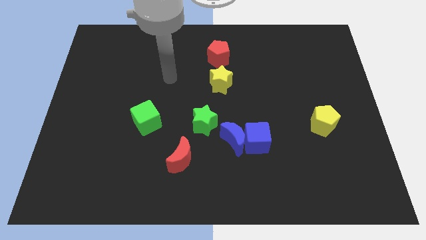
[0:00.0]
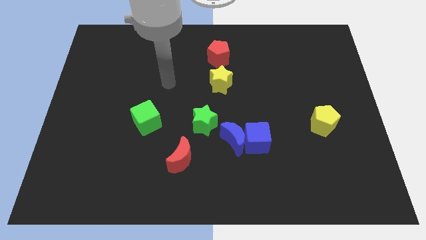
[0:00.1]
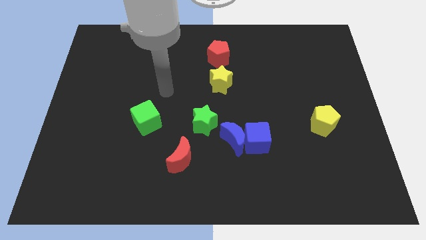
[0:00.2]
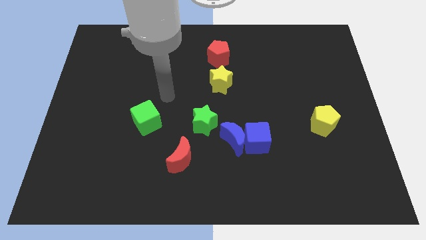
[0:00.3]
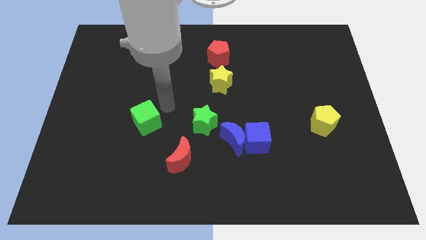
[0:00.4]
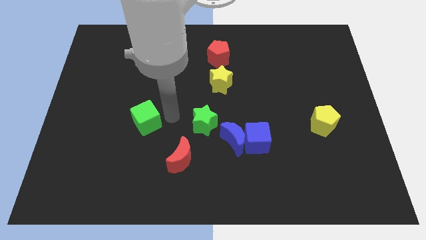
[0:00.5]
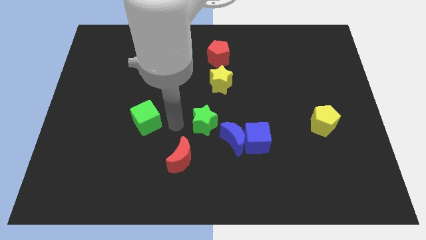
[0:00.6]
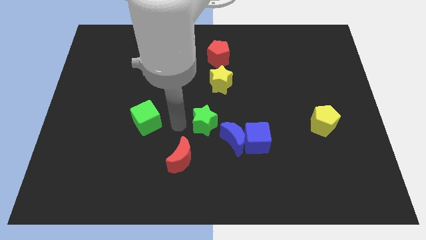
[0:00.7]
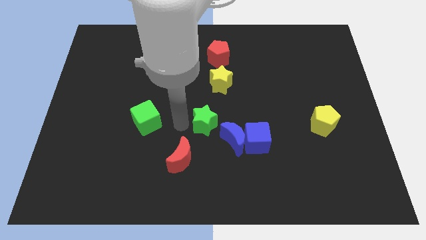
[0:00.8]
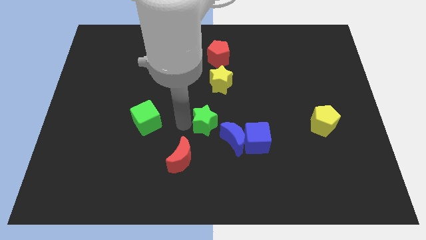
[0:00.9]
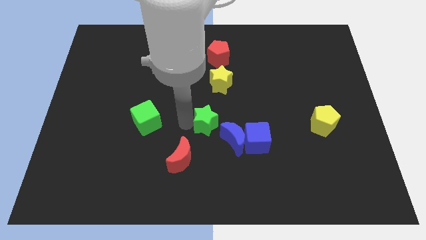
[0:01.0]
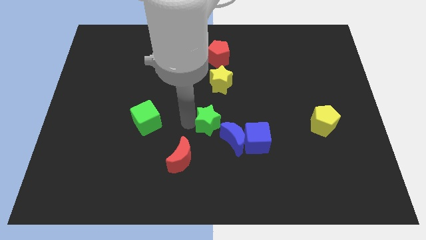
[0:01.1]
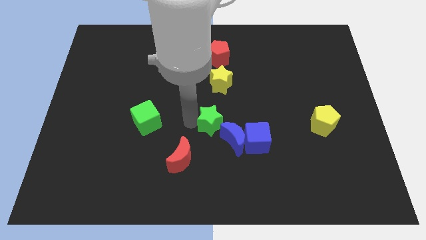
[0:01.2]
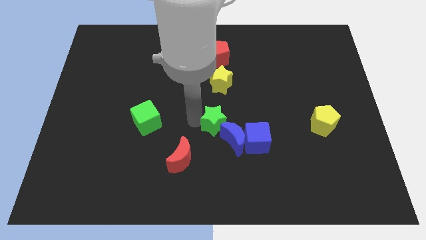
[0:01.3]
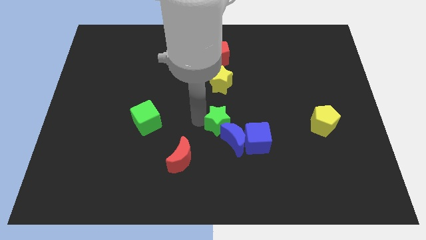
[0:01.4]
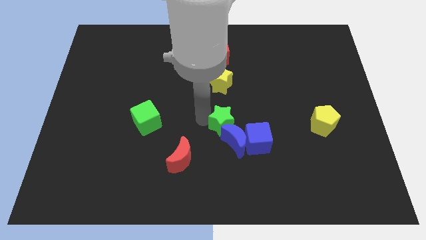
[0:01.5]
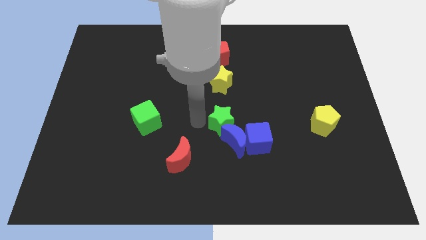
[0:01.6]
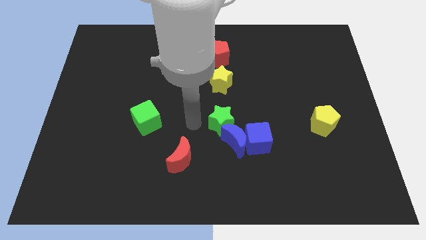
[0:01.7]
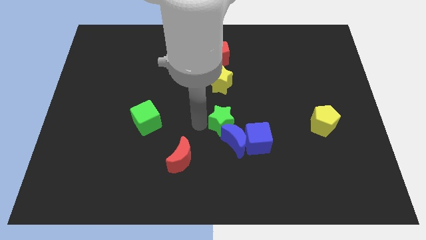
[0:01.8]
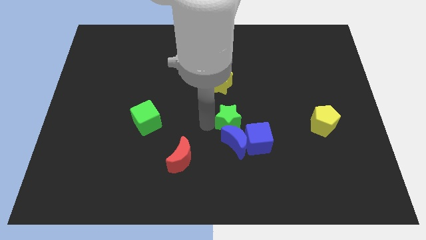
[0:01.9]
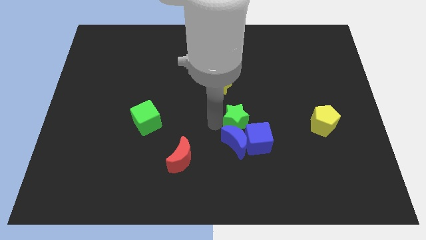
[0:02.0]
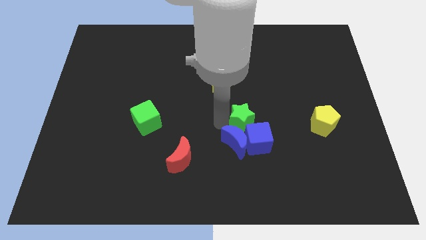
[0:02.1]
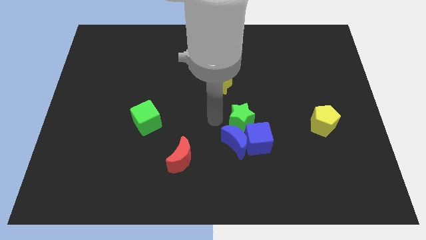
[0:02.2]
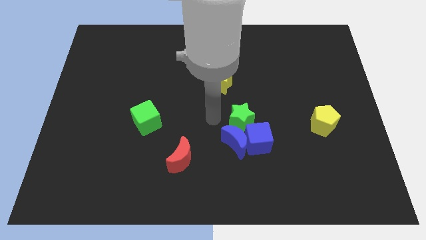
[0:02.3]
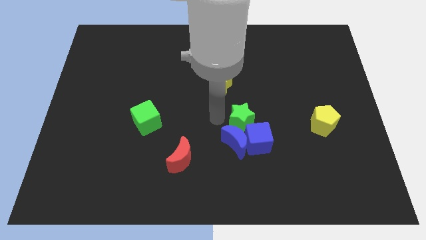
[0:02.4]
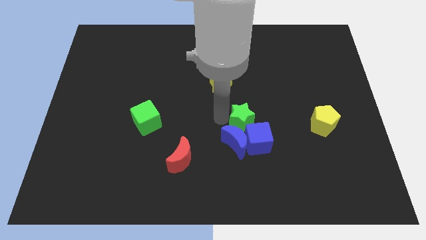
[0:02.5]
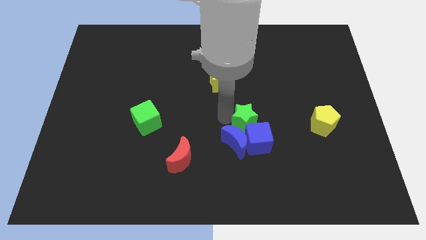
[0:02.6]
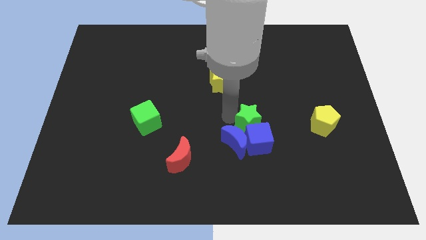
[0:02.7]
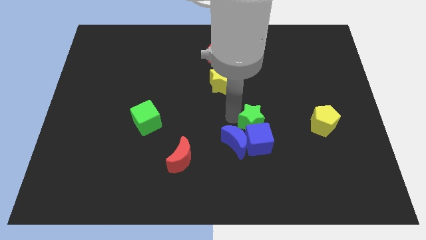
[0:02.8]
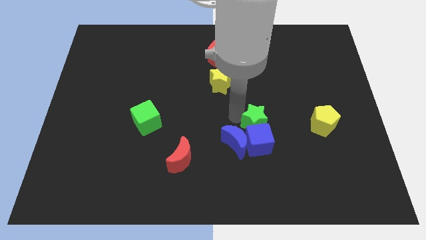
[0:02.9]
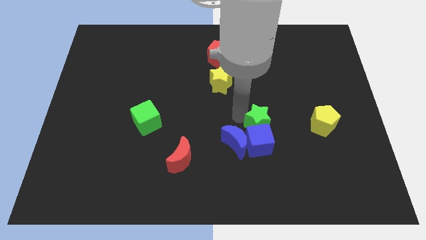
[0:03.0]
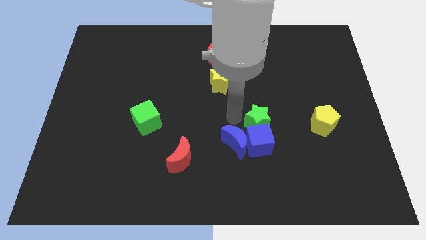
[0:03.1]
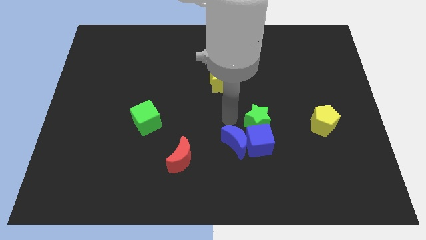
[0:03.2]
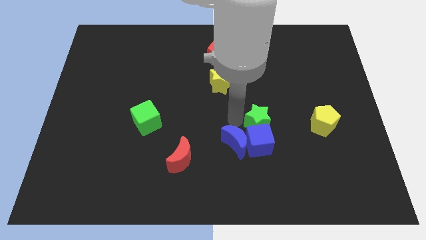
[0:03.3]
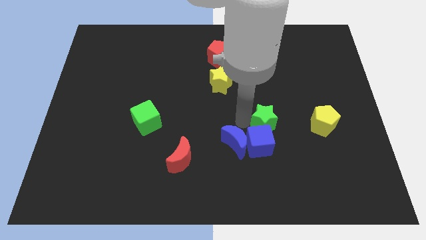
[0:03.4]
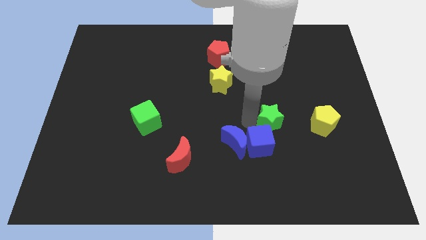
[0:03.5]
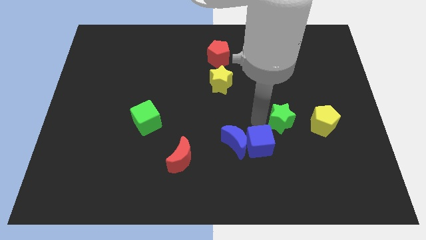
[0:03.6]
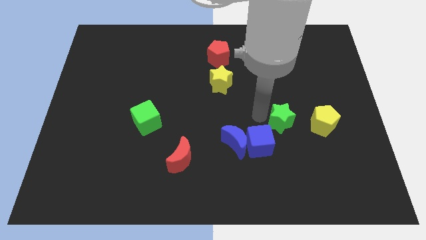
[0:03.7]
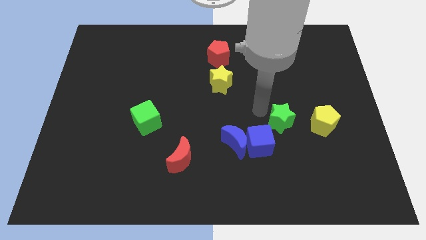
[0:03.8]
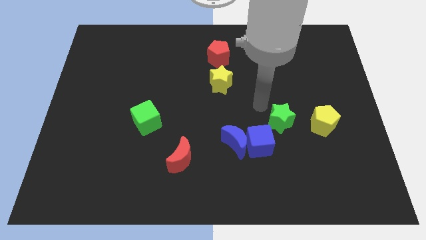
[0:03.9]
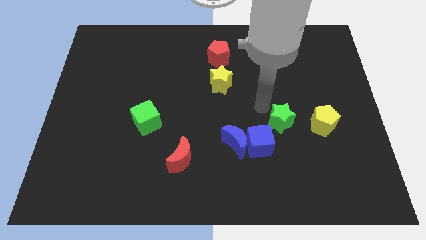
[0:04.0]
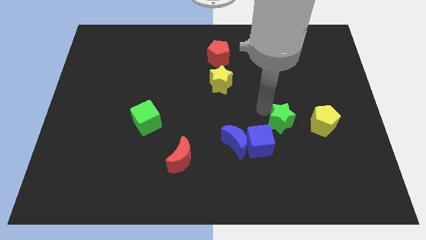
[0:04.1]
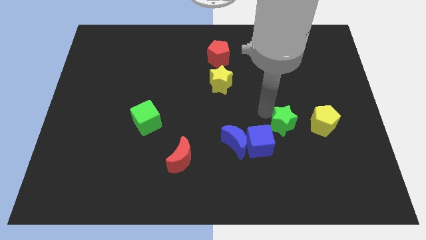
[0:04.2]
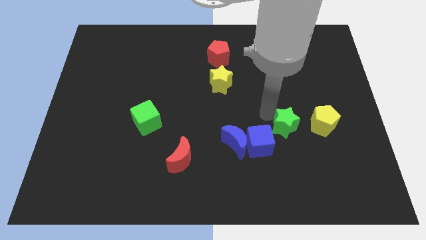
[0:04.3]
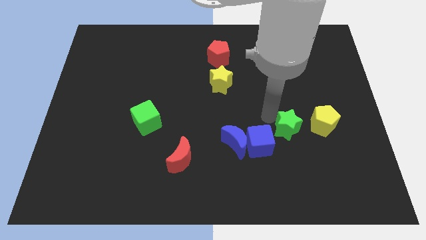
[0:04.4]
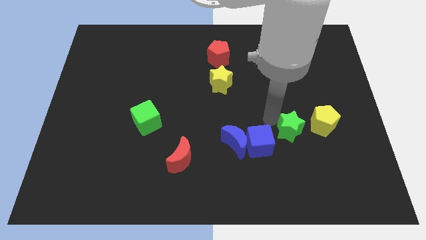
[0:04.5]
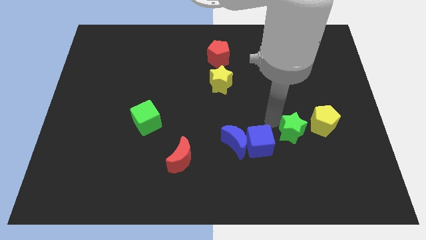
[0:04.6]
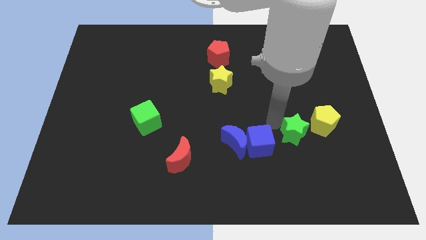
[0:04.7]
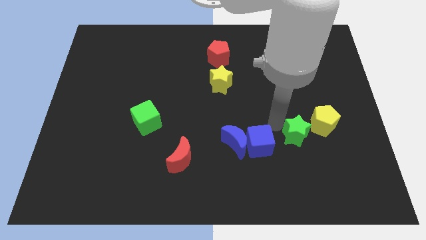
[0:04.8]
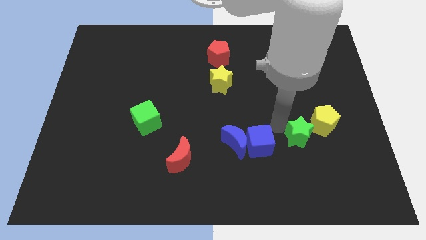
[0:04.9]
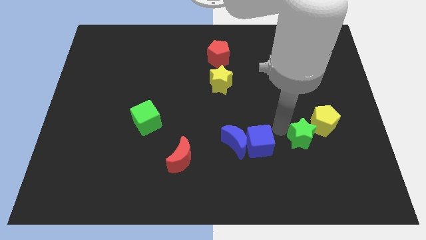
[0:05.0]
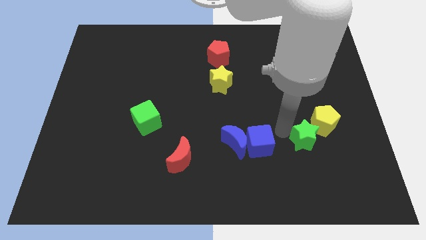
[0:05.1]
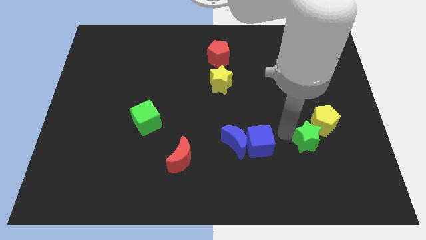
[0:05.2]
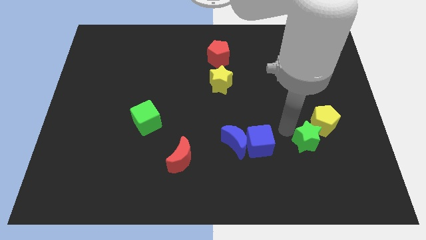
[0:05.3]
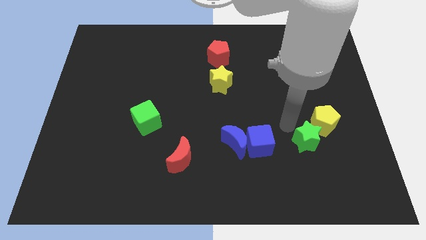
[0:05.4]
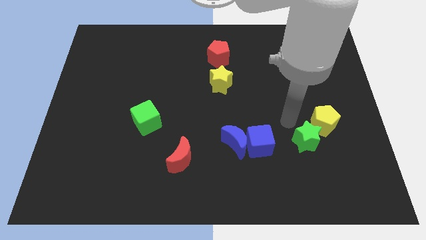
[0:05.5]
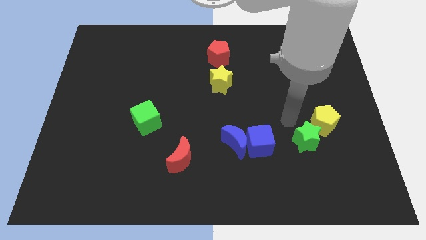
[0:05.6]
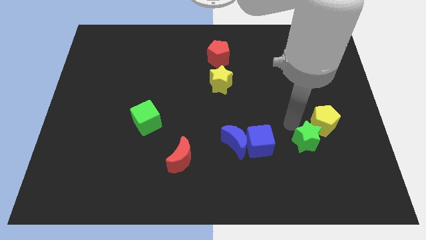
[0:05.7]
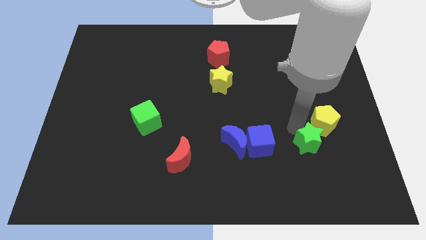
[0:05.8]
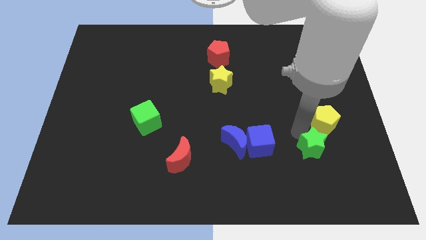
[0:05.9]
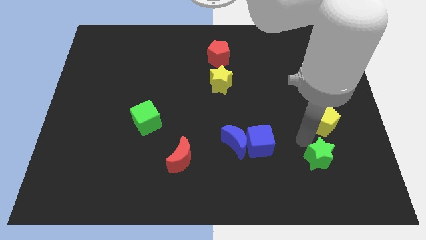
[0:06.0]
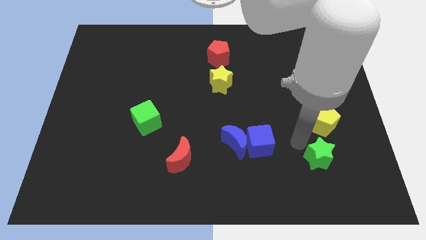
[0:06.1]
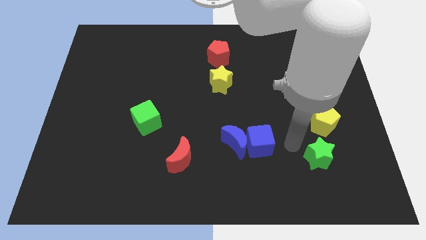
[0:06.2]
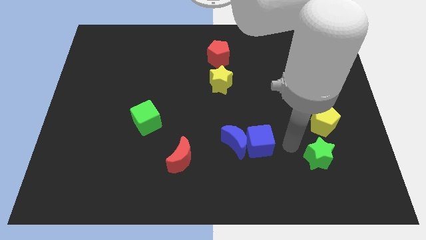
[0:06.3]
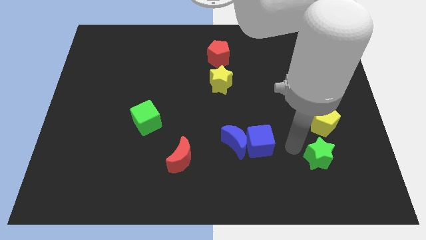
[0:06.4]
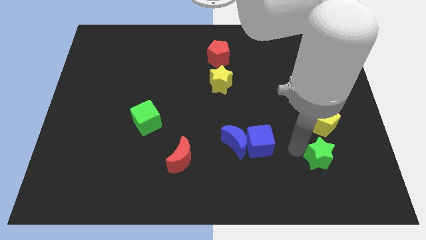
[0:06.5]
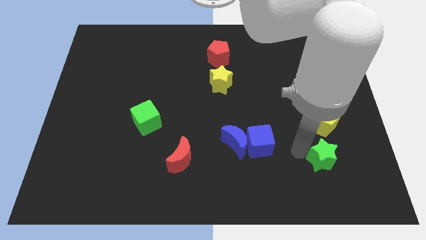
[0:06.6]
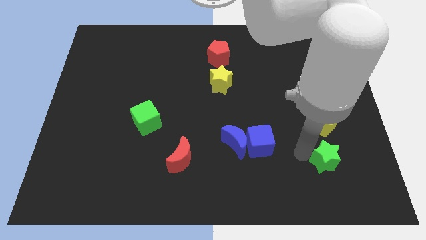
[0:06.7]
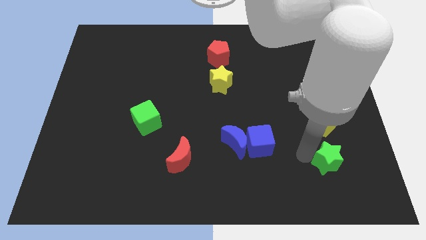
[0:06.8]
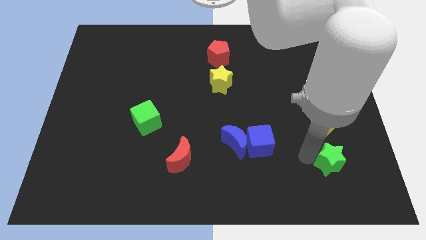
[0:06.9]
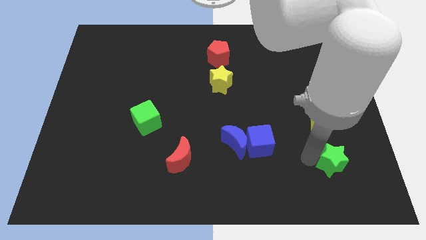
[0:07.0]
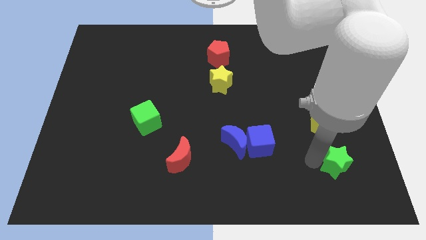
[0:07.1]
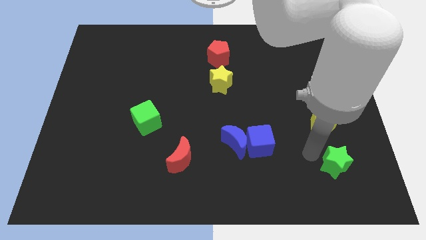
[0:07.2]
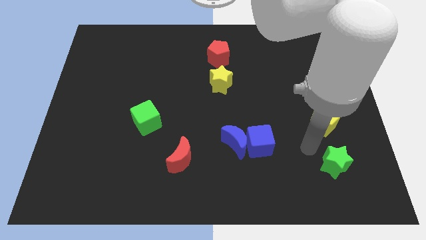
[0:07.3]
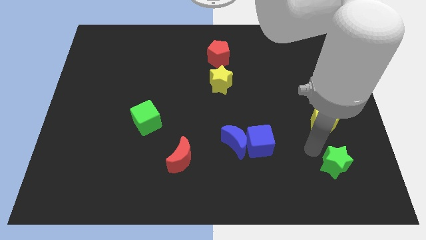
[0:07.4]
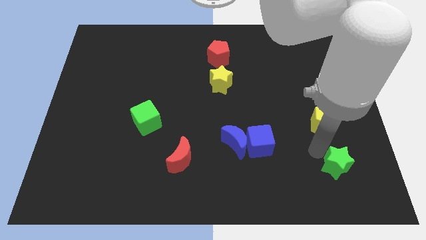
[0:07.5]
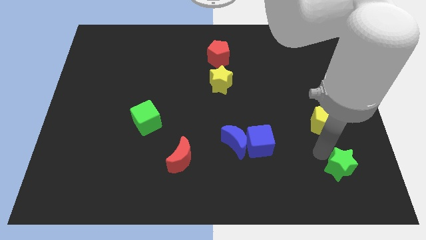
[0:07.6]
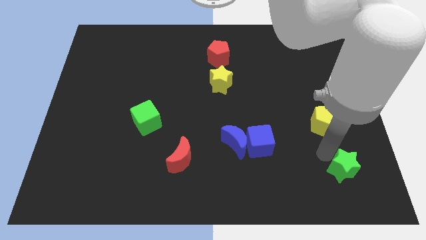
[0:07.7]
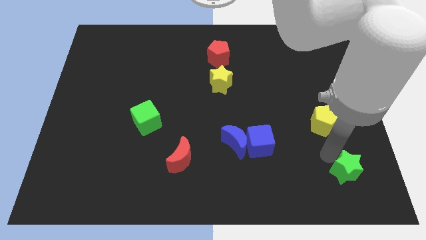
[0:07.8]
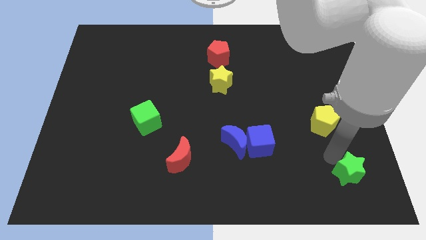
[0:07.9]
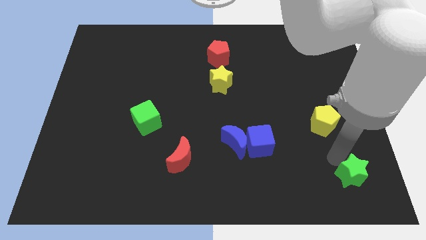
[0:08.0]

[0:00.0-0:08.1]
push the green star to the bottom right corner
